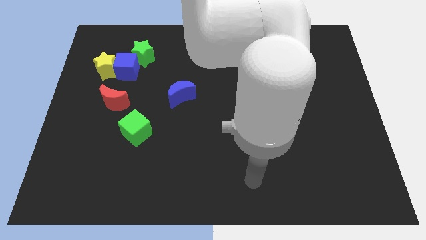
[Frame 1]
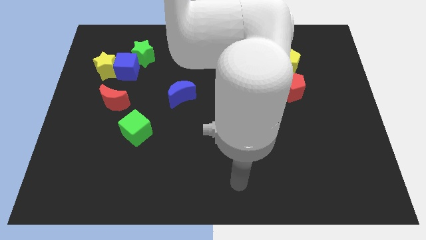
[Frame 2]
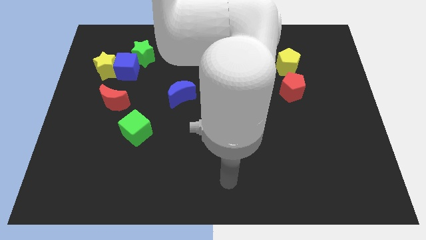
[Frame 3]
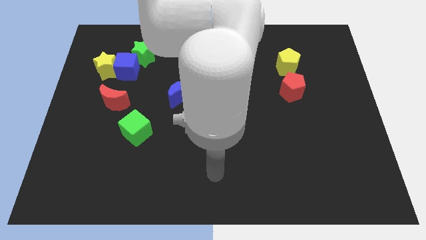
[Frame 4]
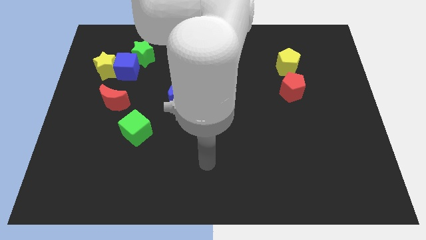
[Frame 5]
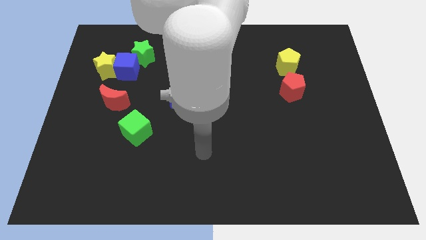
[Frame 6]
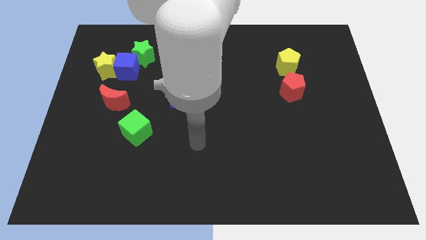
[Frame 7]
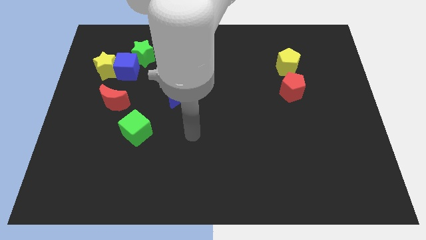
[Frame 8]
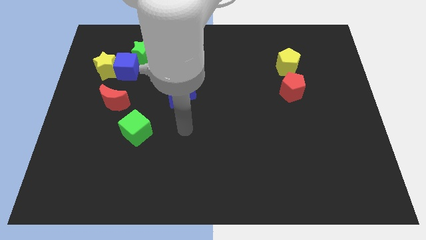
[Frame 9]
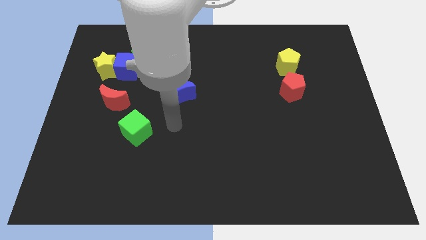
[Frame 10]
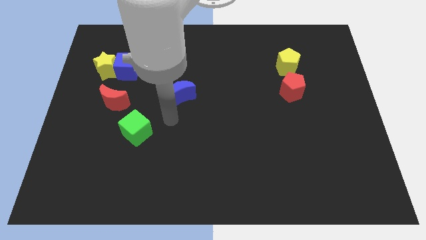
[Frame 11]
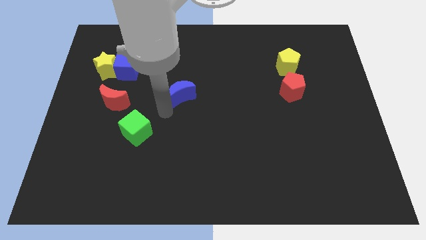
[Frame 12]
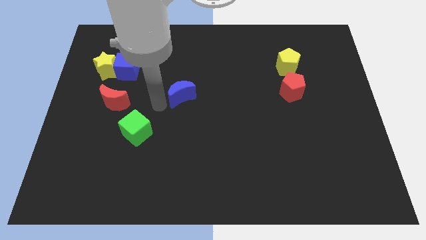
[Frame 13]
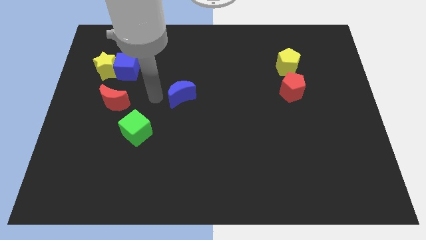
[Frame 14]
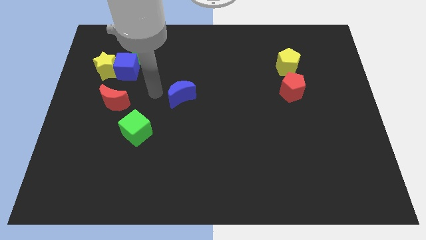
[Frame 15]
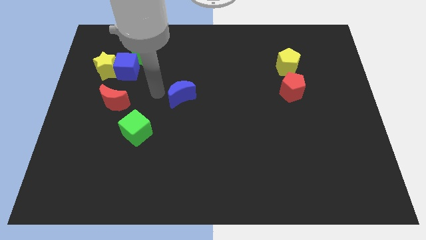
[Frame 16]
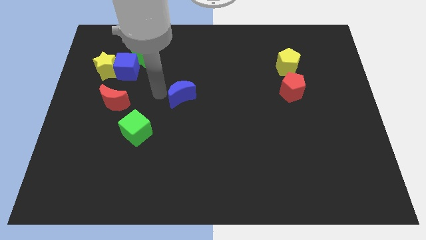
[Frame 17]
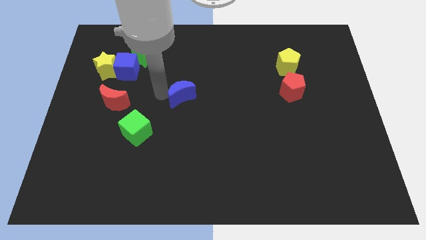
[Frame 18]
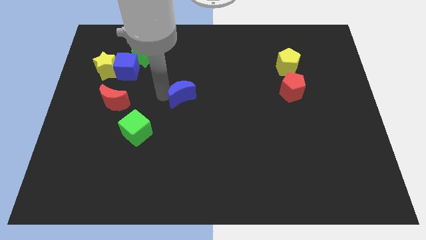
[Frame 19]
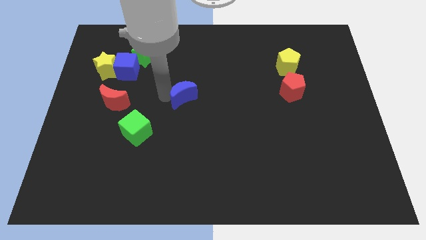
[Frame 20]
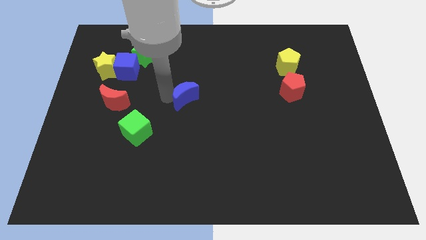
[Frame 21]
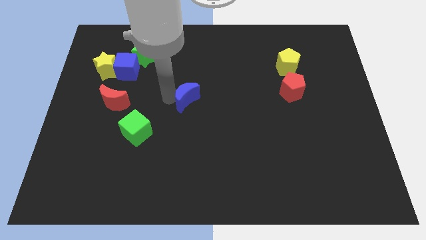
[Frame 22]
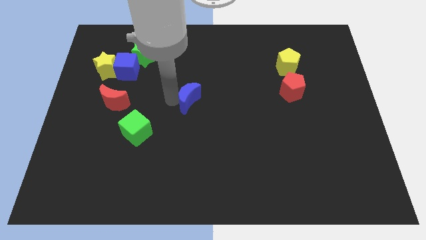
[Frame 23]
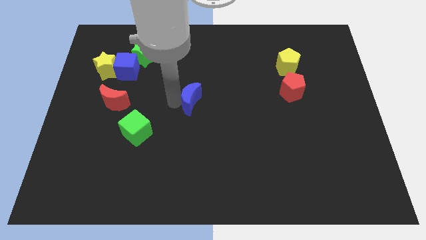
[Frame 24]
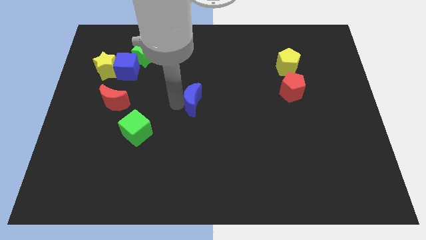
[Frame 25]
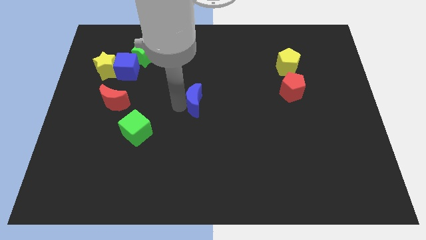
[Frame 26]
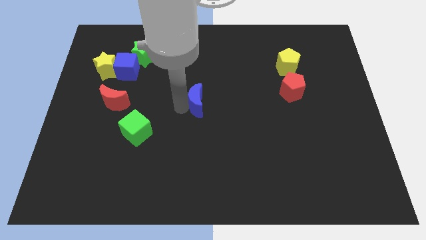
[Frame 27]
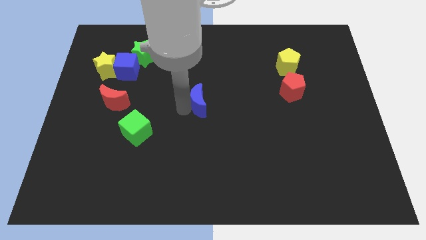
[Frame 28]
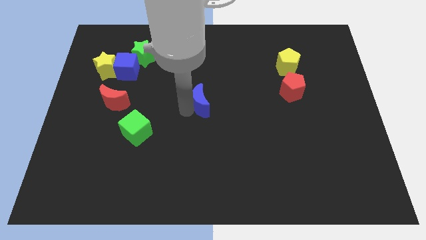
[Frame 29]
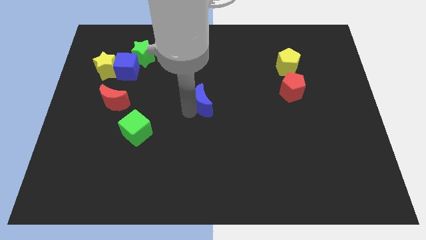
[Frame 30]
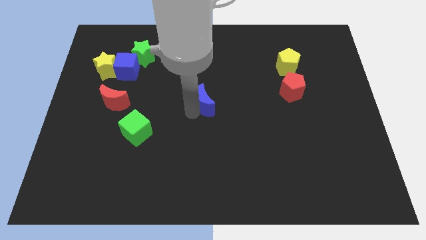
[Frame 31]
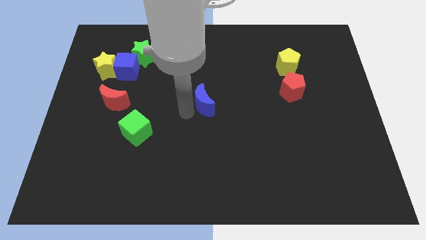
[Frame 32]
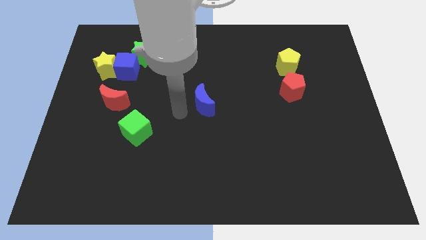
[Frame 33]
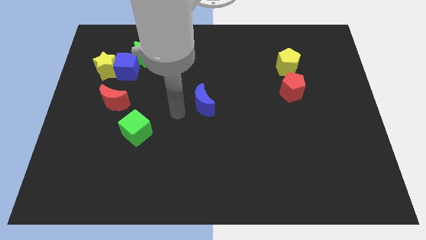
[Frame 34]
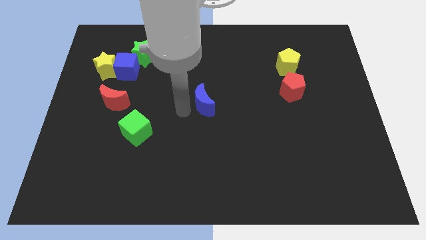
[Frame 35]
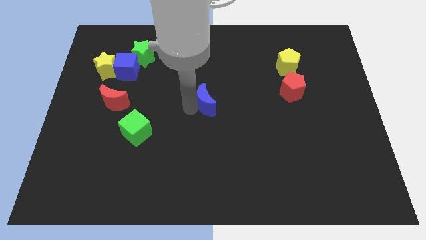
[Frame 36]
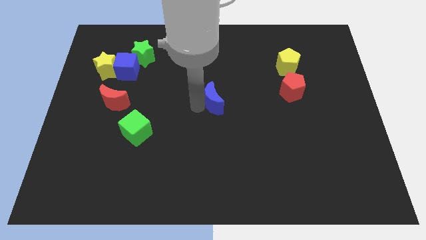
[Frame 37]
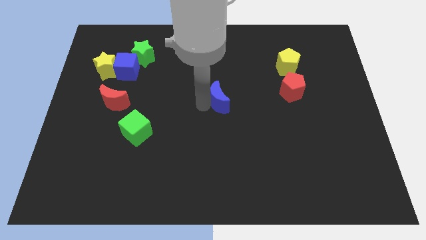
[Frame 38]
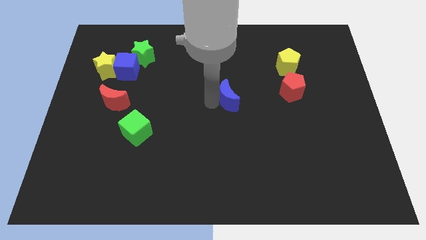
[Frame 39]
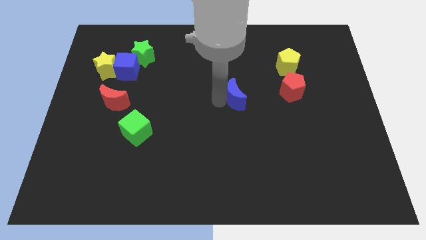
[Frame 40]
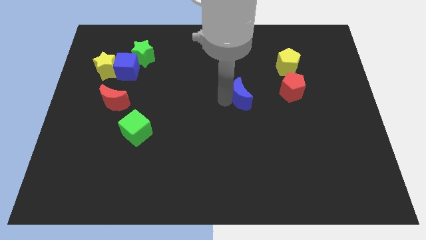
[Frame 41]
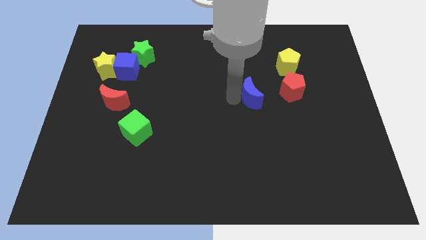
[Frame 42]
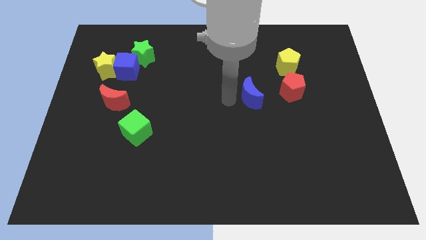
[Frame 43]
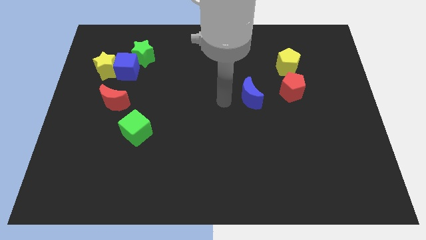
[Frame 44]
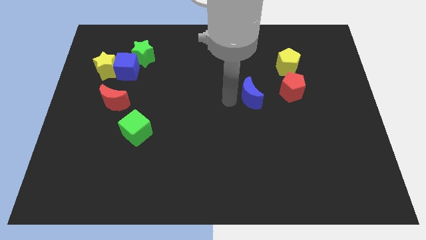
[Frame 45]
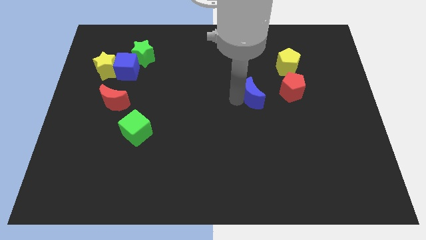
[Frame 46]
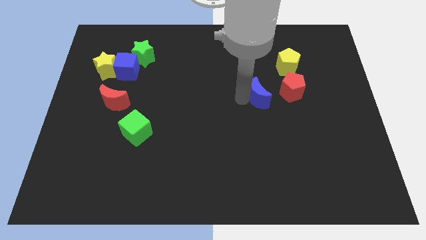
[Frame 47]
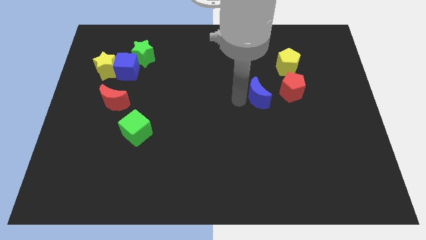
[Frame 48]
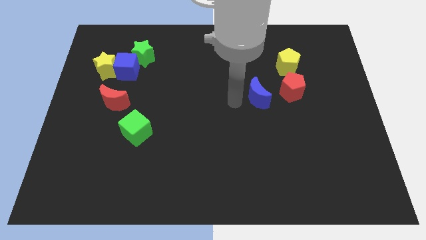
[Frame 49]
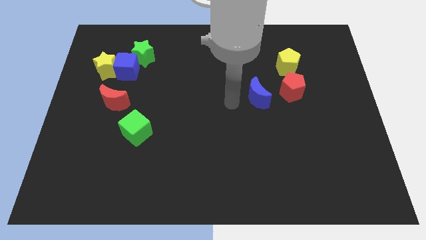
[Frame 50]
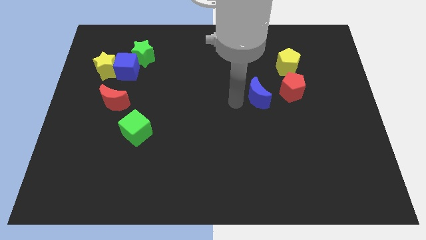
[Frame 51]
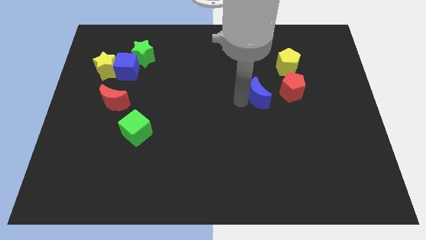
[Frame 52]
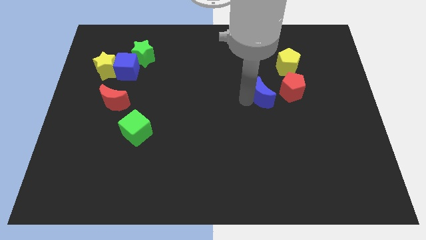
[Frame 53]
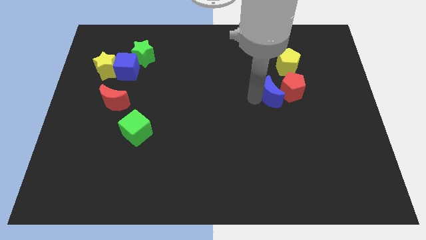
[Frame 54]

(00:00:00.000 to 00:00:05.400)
slide the blue moon close to the red pentagon

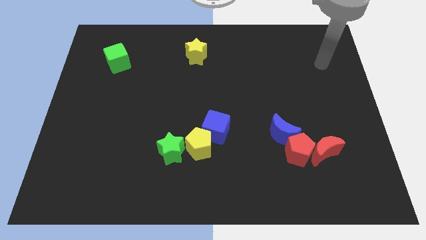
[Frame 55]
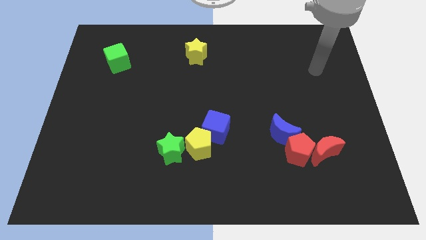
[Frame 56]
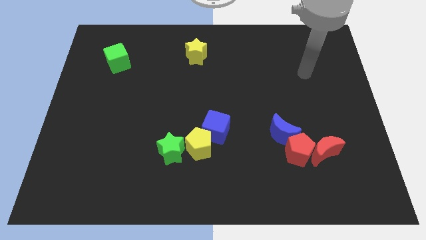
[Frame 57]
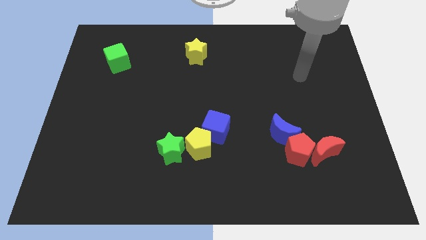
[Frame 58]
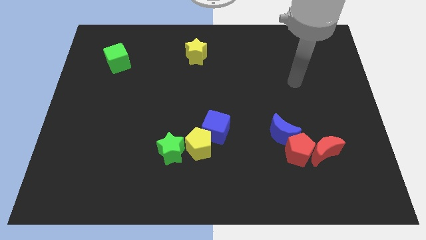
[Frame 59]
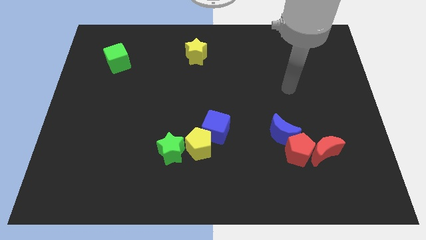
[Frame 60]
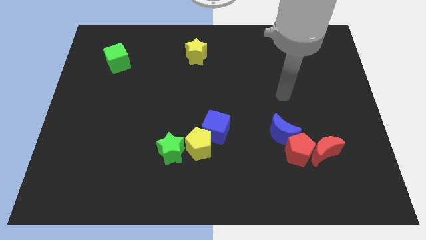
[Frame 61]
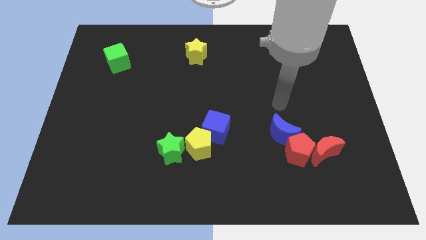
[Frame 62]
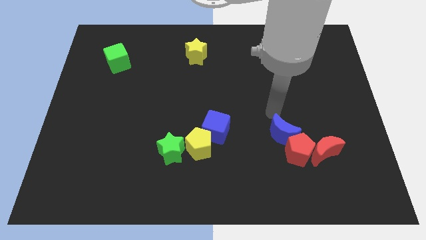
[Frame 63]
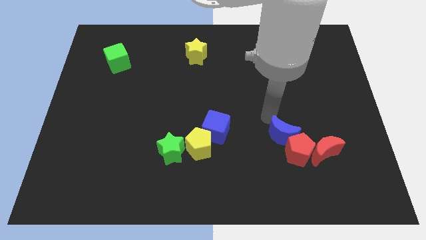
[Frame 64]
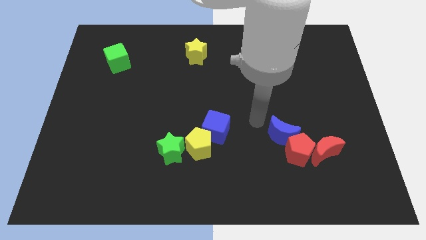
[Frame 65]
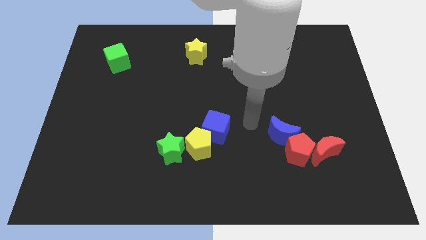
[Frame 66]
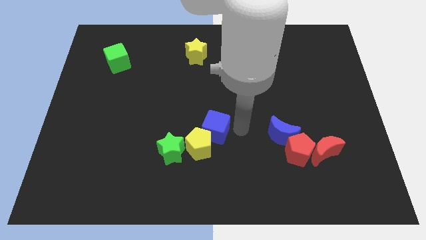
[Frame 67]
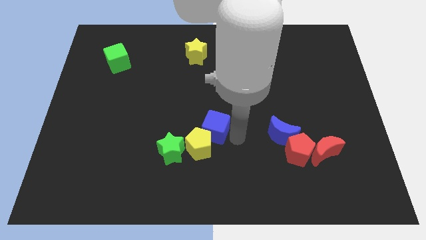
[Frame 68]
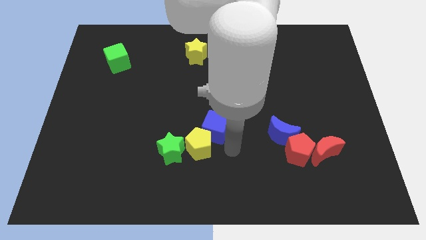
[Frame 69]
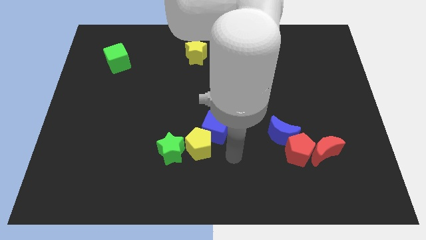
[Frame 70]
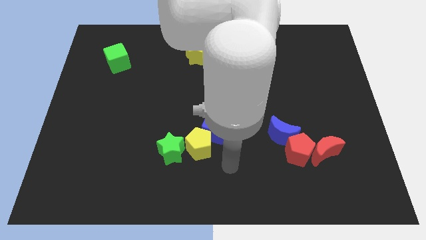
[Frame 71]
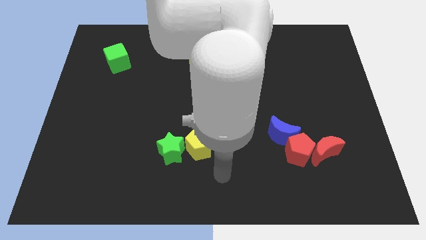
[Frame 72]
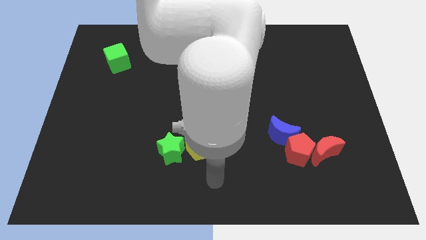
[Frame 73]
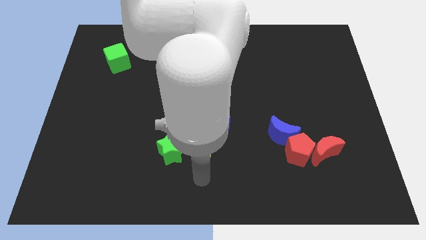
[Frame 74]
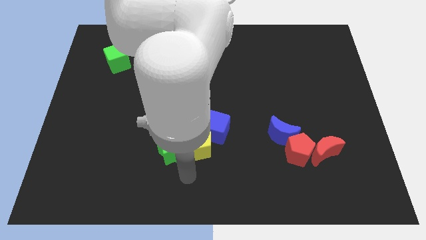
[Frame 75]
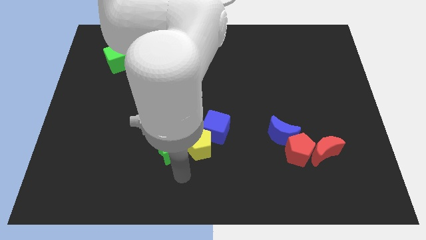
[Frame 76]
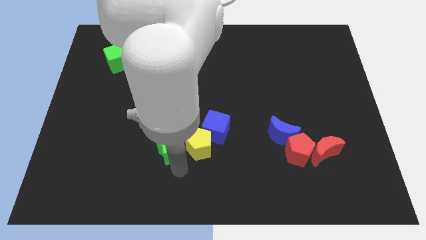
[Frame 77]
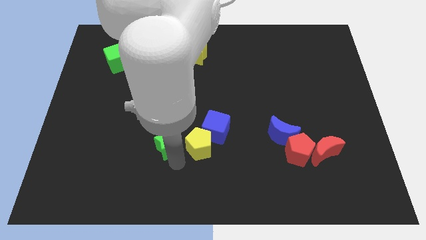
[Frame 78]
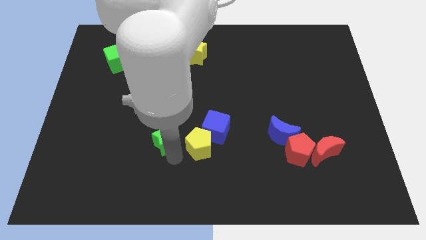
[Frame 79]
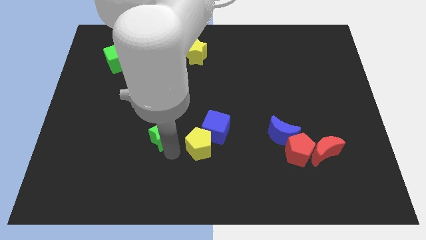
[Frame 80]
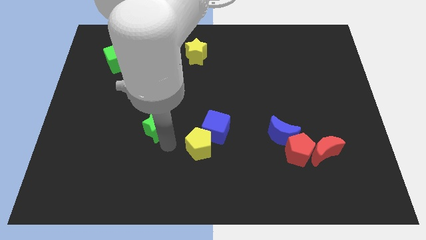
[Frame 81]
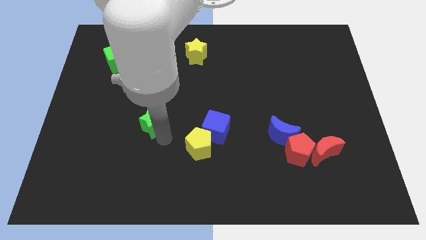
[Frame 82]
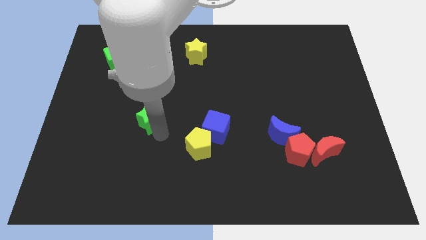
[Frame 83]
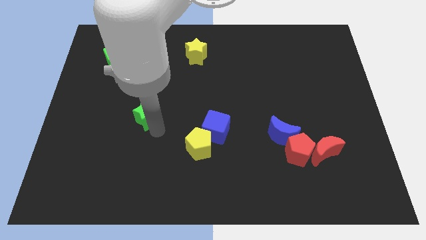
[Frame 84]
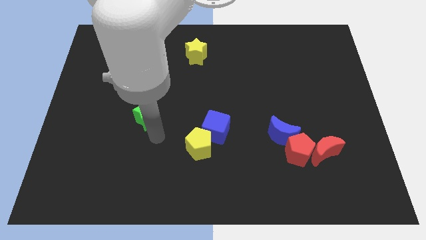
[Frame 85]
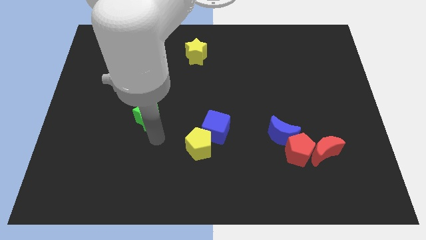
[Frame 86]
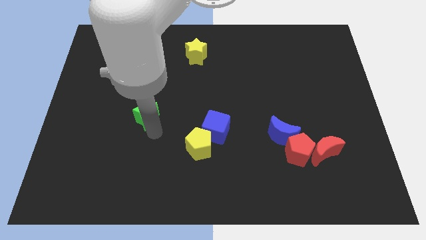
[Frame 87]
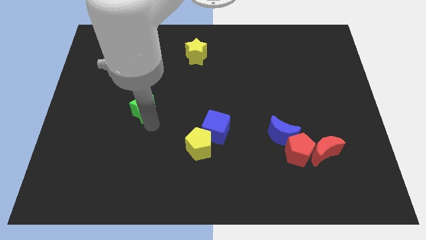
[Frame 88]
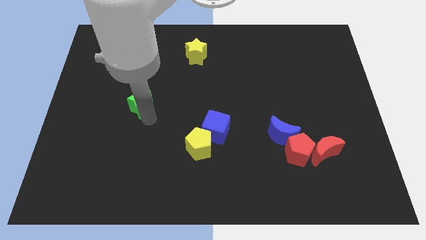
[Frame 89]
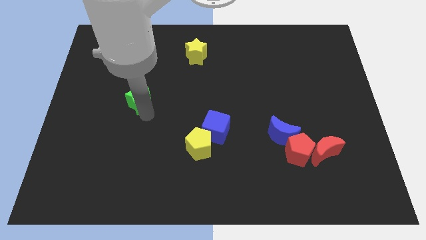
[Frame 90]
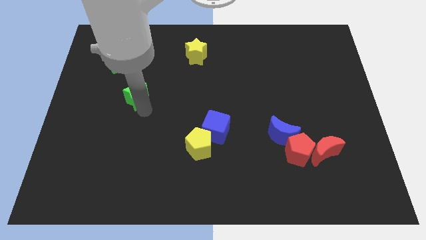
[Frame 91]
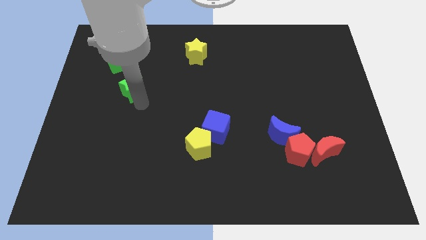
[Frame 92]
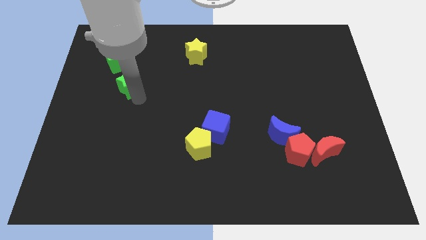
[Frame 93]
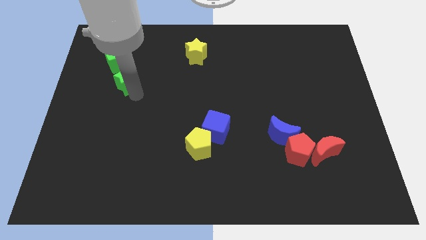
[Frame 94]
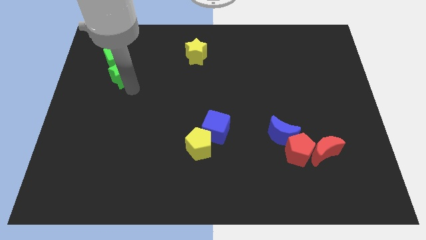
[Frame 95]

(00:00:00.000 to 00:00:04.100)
push the green star close to the green cube
